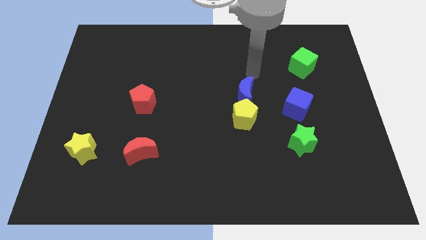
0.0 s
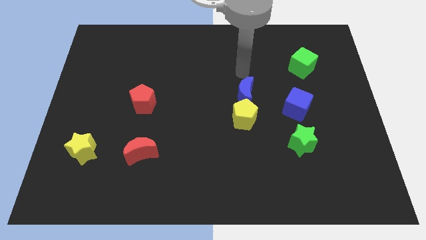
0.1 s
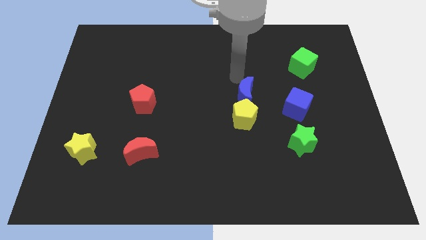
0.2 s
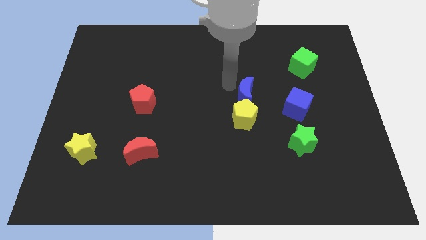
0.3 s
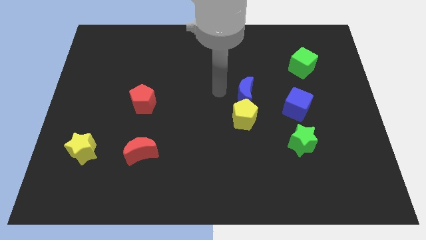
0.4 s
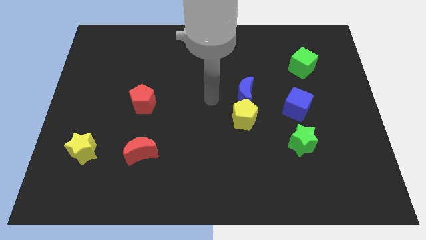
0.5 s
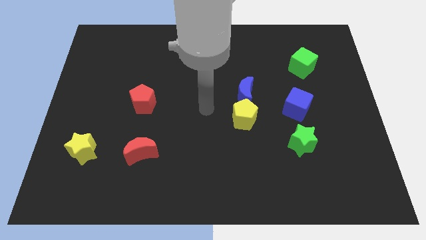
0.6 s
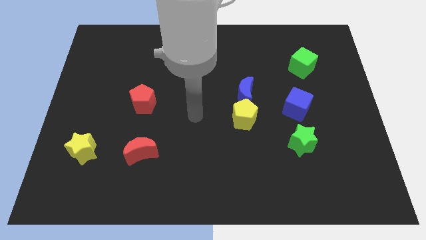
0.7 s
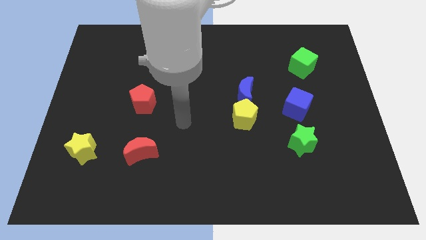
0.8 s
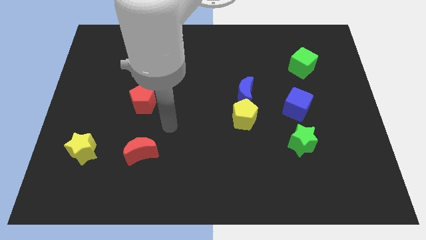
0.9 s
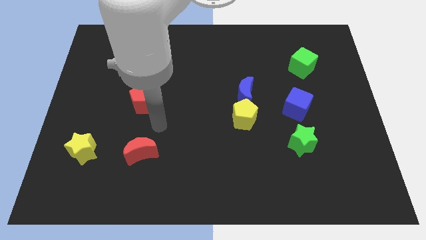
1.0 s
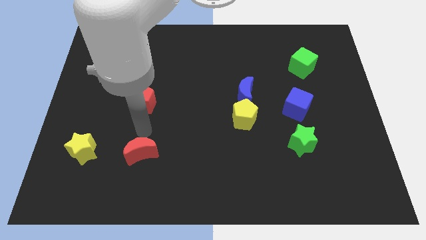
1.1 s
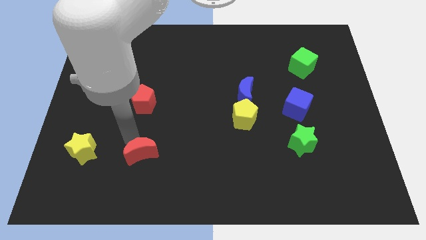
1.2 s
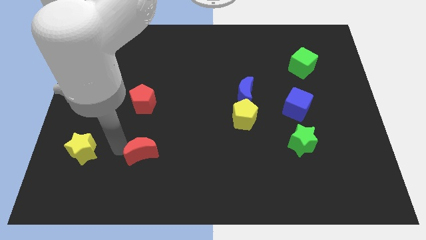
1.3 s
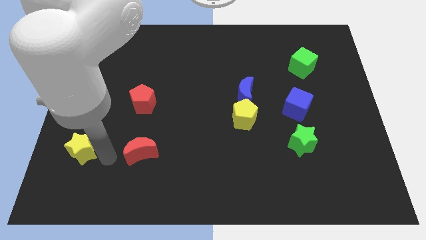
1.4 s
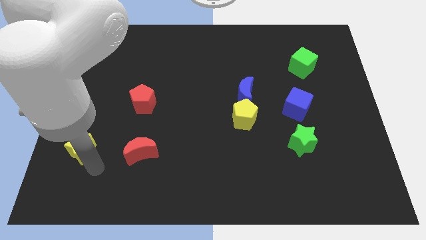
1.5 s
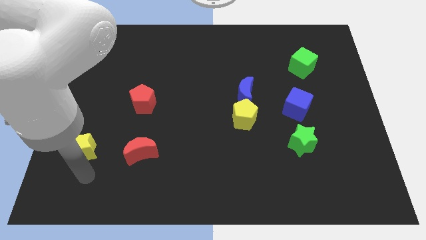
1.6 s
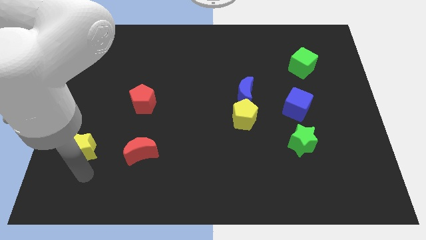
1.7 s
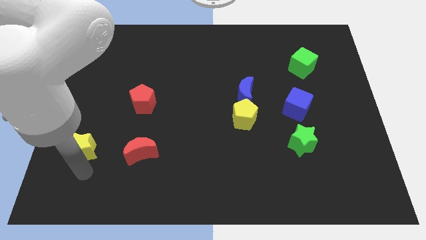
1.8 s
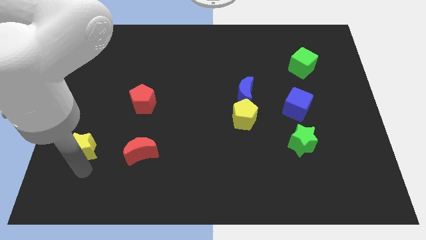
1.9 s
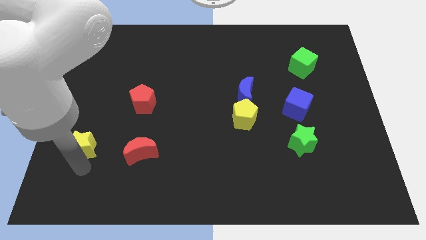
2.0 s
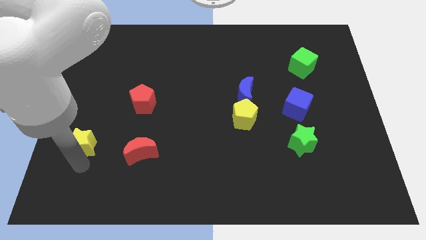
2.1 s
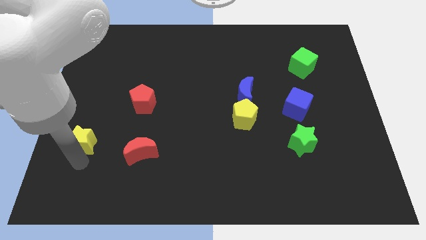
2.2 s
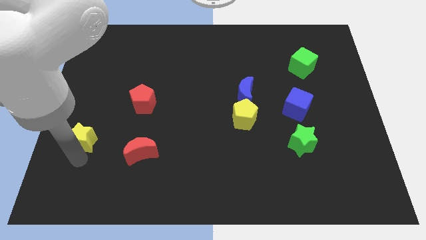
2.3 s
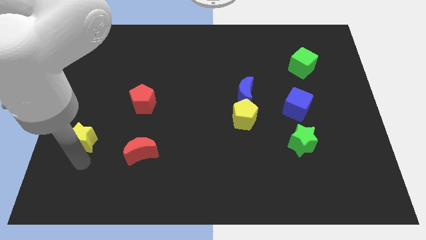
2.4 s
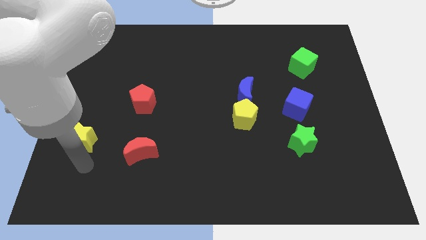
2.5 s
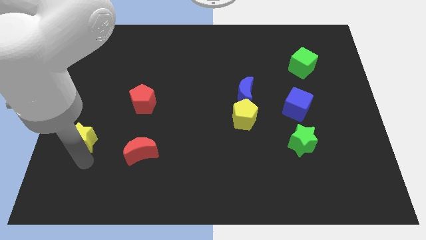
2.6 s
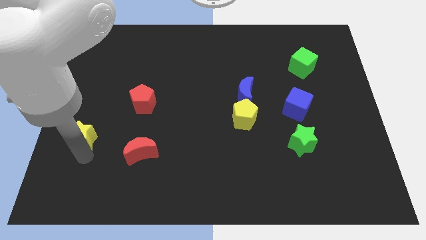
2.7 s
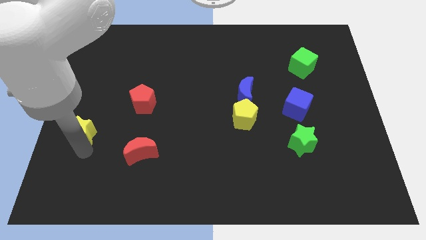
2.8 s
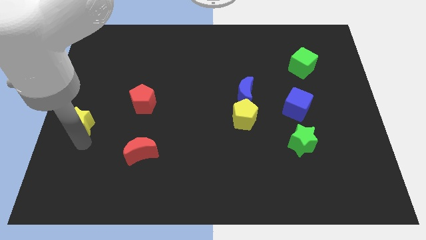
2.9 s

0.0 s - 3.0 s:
move the yellow star slightly up

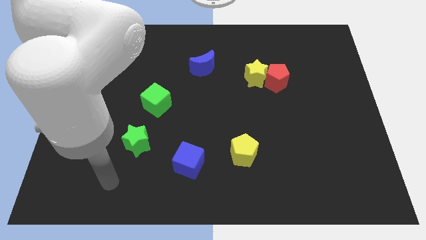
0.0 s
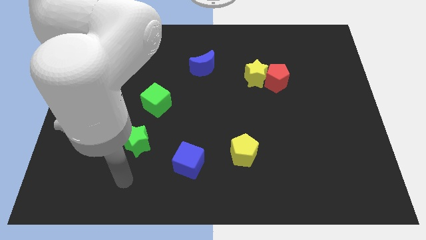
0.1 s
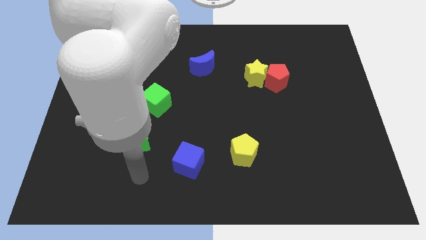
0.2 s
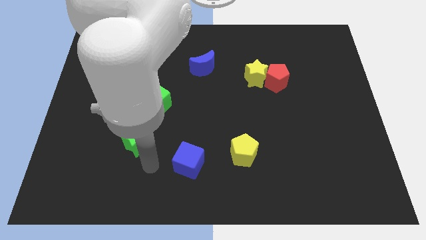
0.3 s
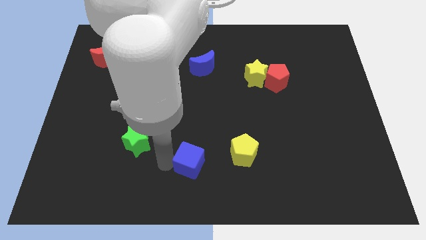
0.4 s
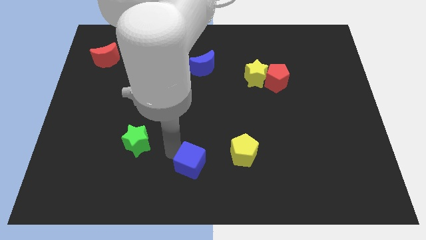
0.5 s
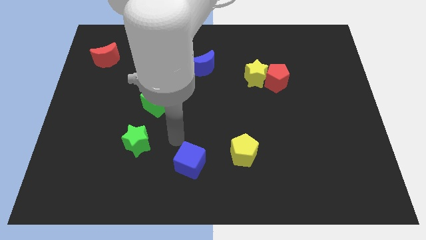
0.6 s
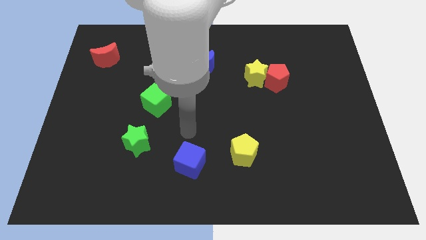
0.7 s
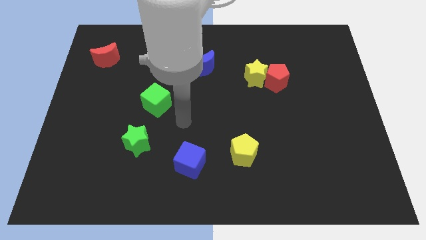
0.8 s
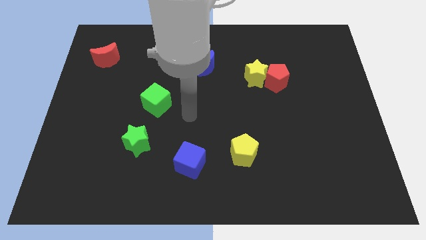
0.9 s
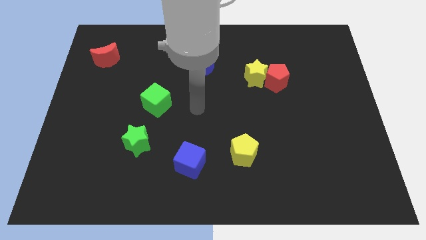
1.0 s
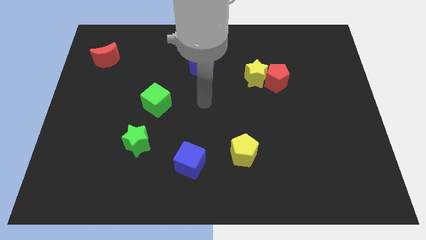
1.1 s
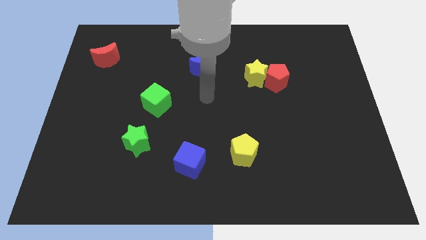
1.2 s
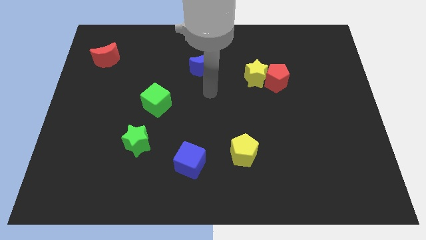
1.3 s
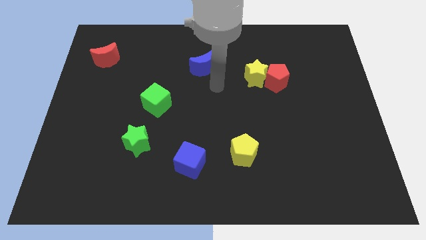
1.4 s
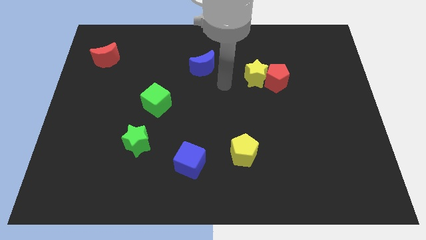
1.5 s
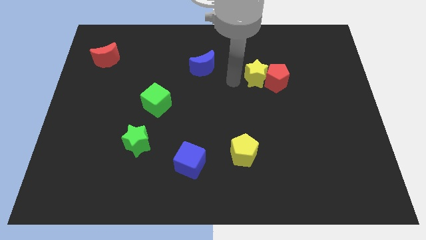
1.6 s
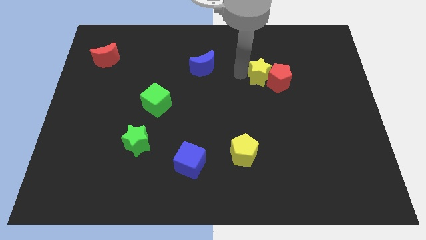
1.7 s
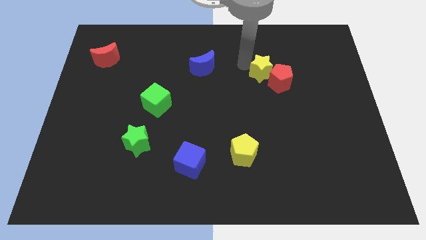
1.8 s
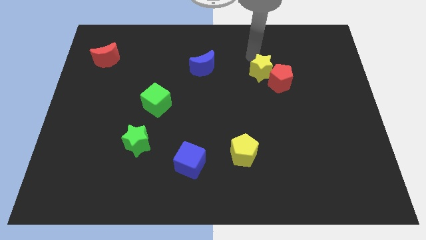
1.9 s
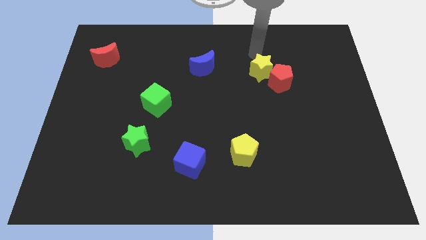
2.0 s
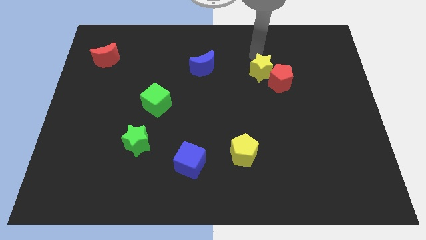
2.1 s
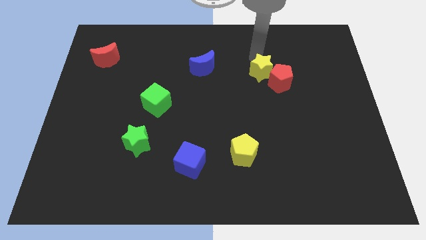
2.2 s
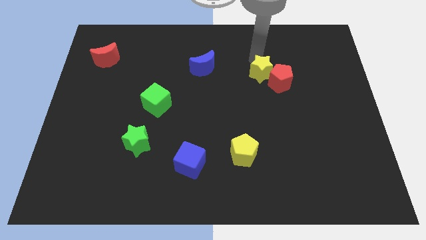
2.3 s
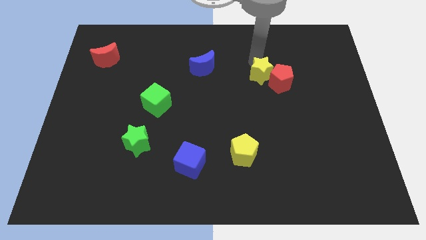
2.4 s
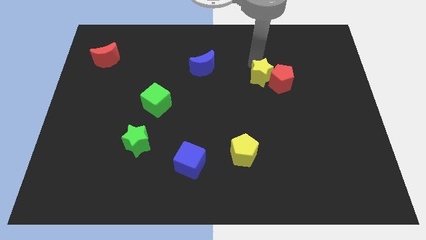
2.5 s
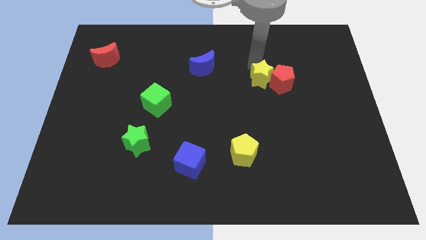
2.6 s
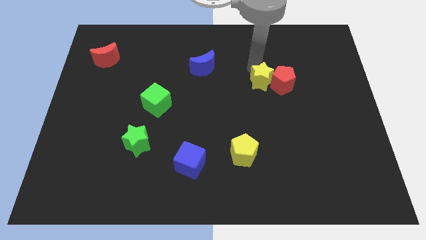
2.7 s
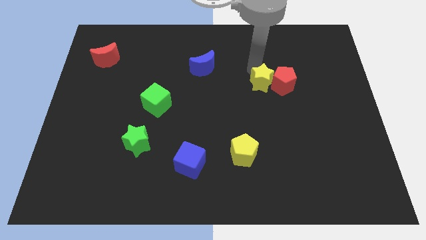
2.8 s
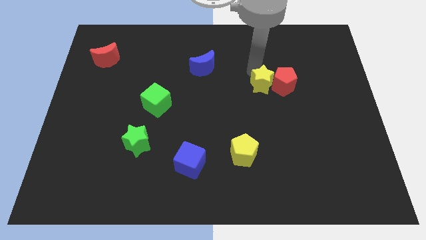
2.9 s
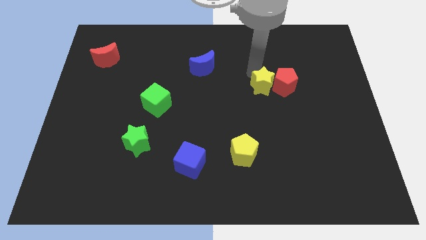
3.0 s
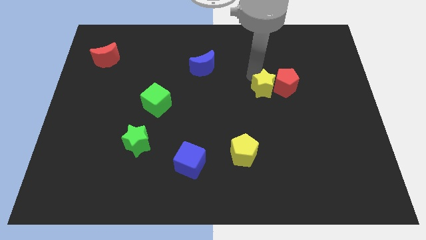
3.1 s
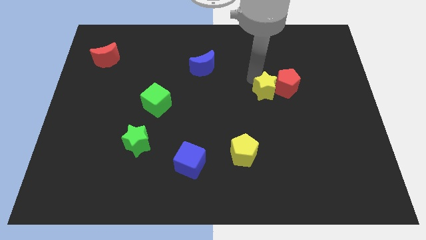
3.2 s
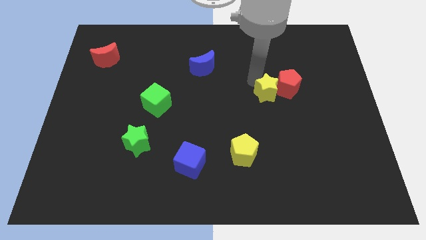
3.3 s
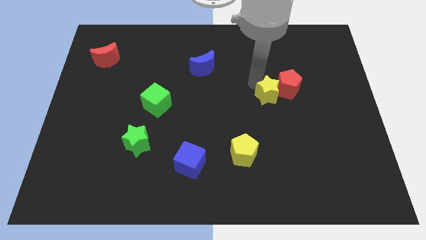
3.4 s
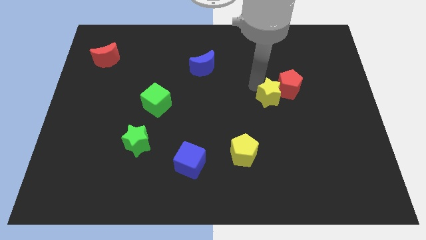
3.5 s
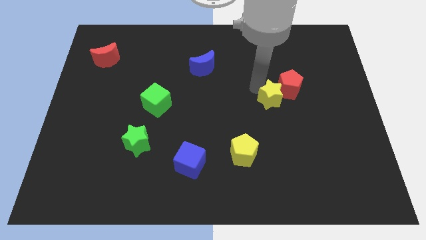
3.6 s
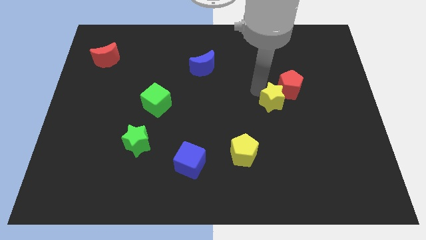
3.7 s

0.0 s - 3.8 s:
slightly slide the yellow star down and to the right diagonally

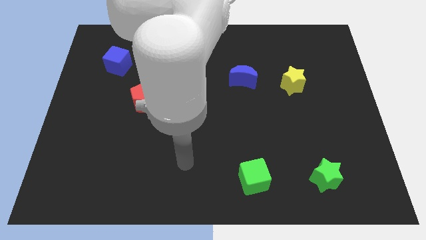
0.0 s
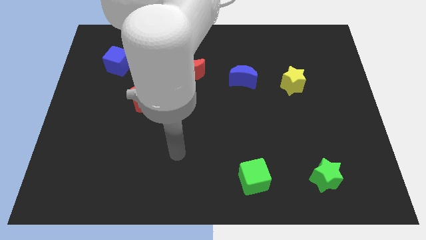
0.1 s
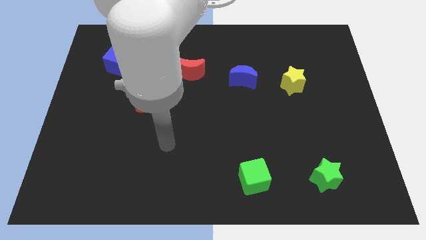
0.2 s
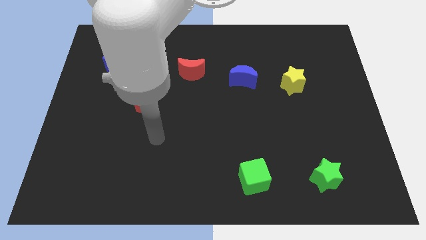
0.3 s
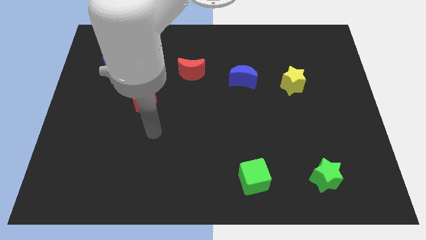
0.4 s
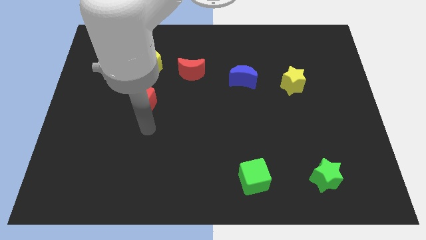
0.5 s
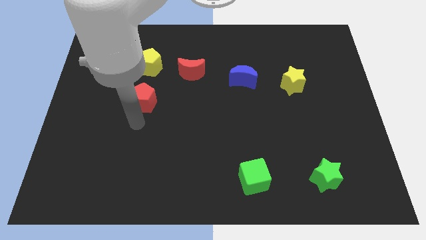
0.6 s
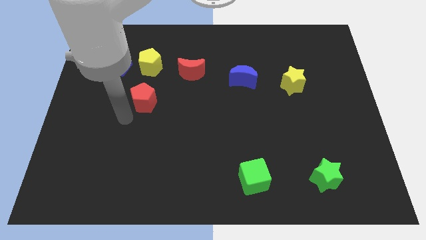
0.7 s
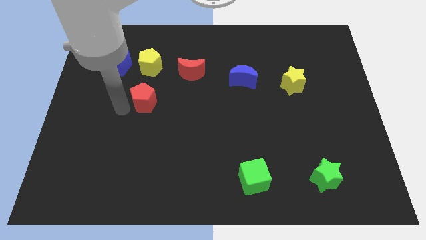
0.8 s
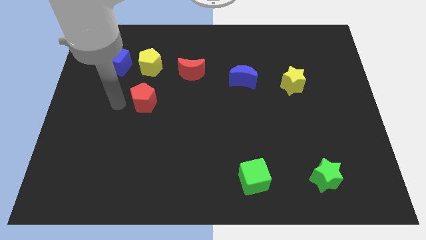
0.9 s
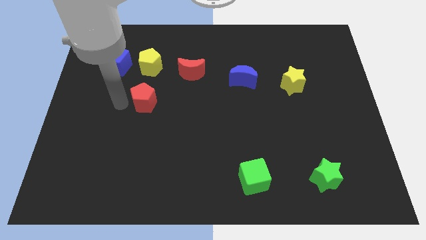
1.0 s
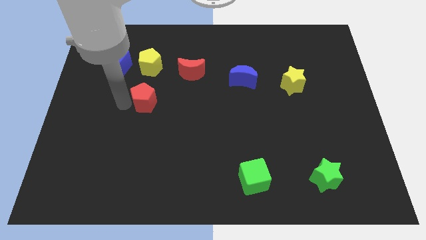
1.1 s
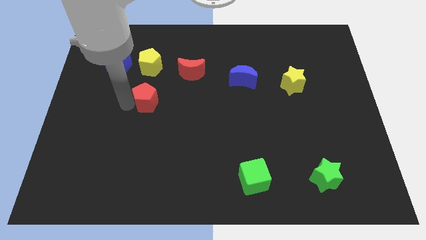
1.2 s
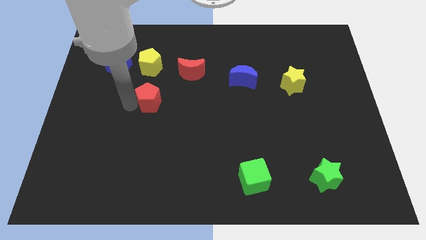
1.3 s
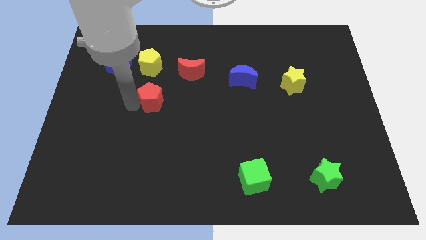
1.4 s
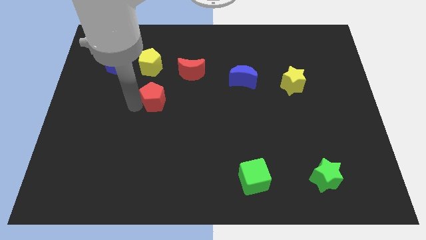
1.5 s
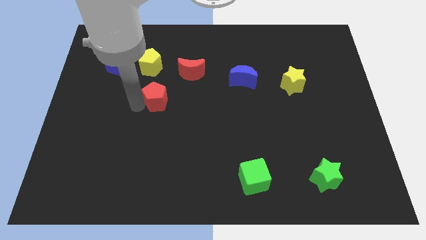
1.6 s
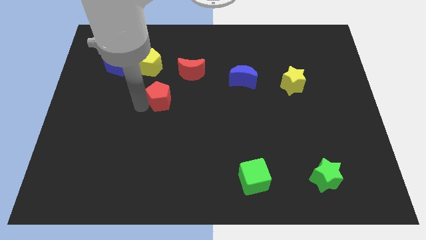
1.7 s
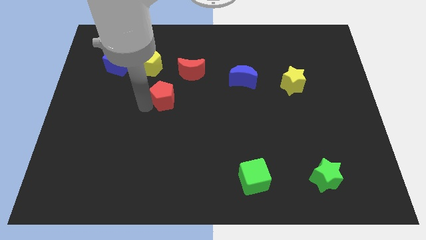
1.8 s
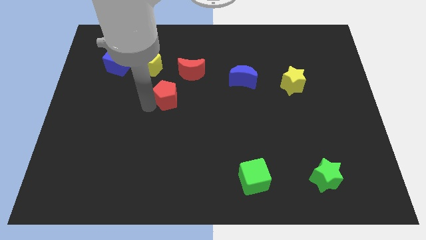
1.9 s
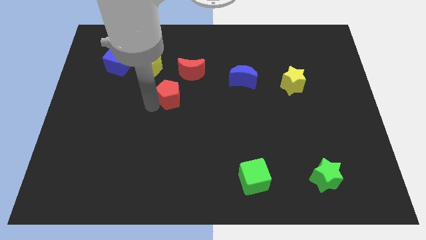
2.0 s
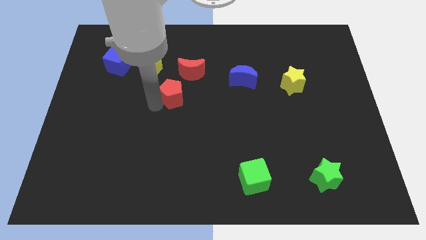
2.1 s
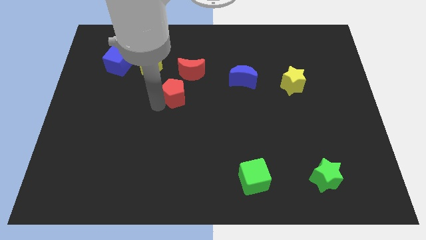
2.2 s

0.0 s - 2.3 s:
slightly slide the red pentagon to the right
